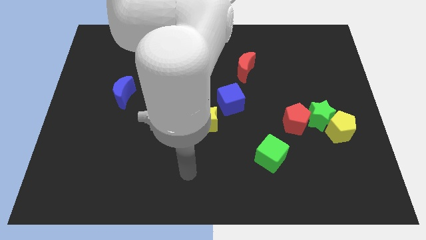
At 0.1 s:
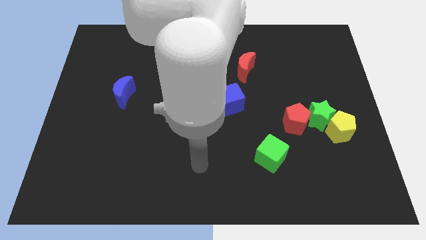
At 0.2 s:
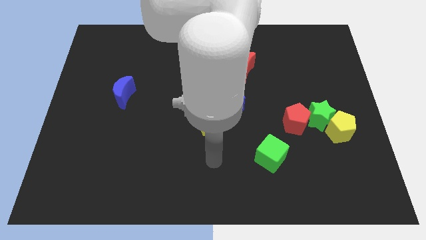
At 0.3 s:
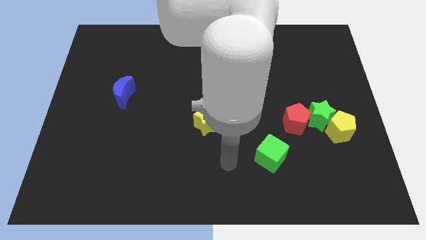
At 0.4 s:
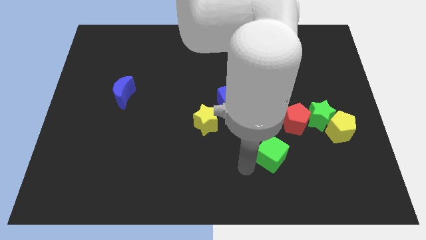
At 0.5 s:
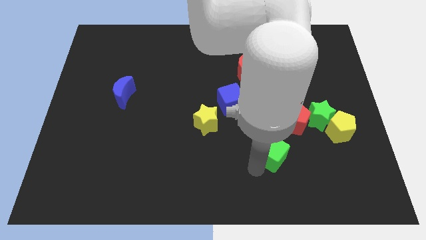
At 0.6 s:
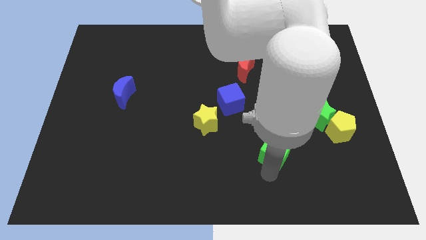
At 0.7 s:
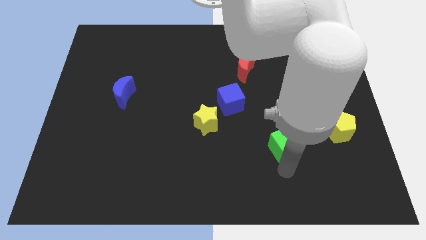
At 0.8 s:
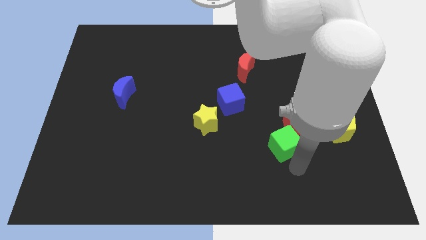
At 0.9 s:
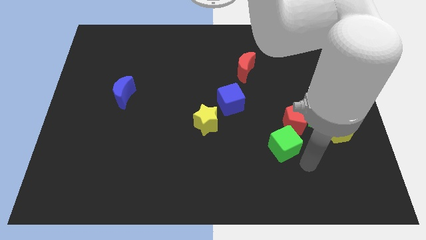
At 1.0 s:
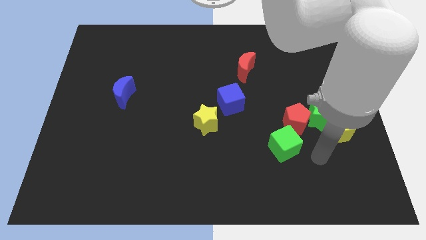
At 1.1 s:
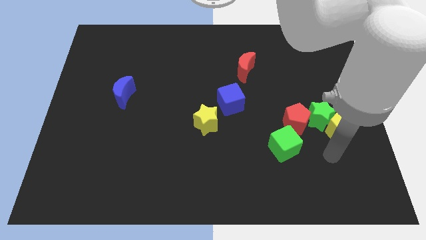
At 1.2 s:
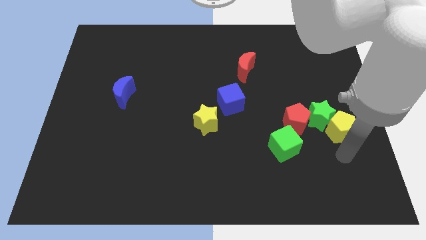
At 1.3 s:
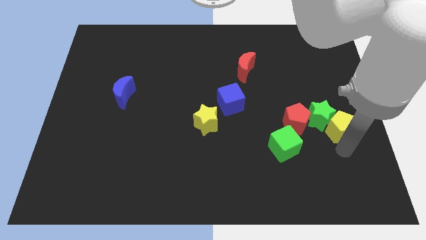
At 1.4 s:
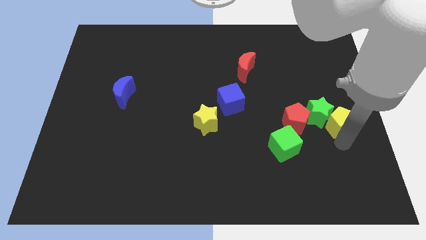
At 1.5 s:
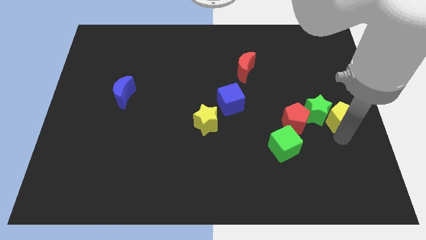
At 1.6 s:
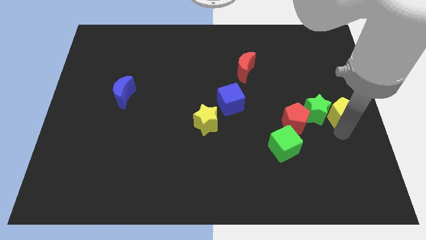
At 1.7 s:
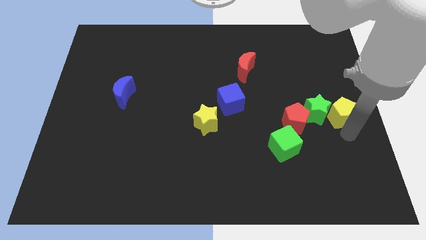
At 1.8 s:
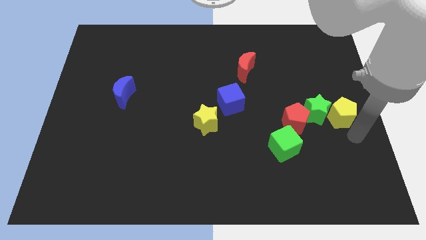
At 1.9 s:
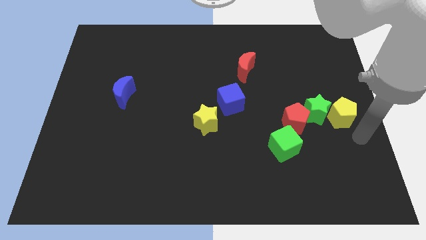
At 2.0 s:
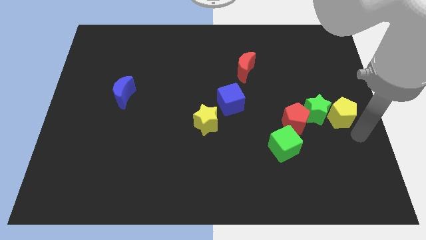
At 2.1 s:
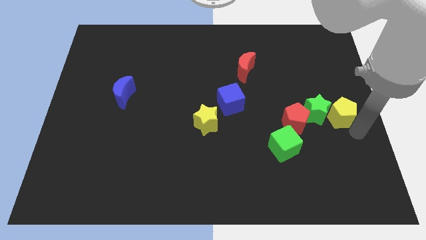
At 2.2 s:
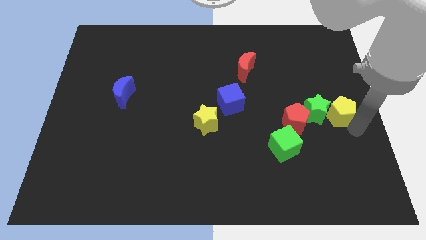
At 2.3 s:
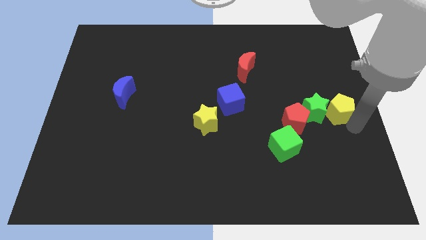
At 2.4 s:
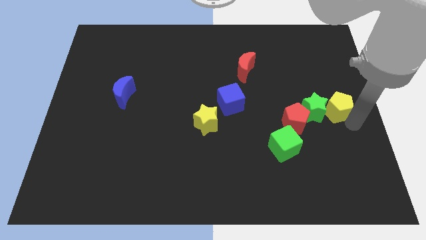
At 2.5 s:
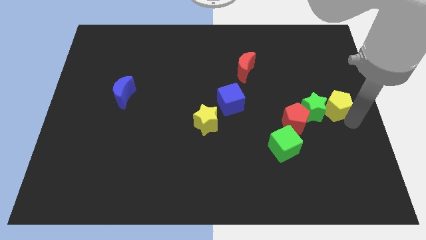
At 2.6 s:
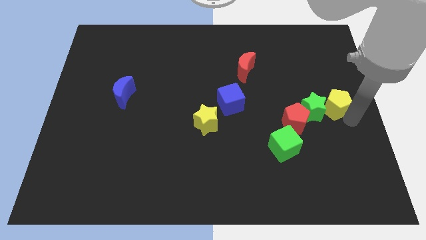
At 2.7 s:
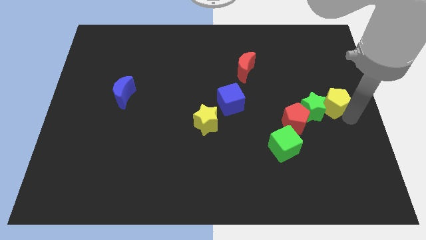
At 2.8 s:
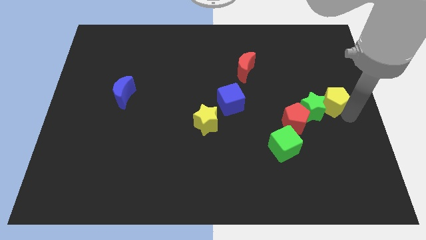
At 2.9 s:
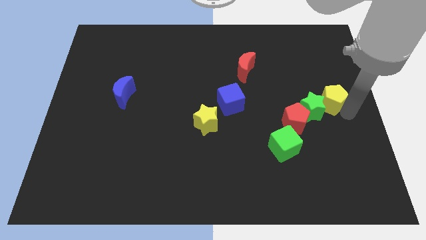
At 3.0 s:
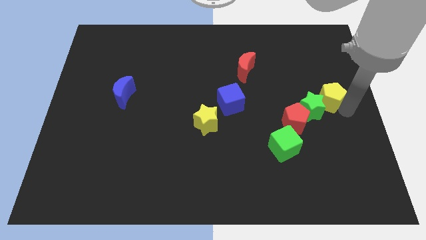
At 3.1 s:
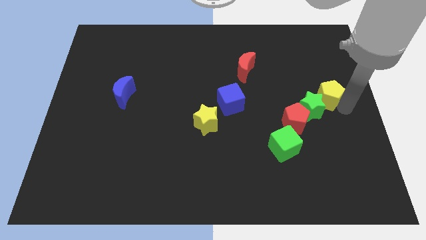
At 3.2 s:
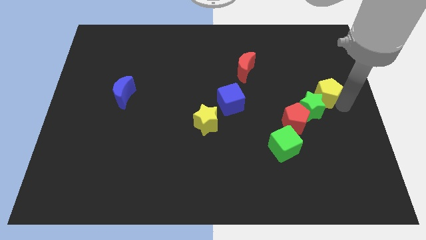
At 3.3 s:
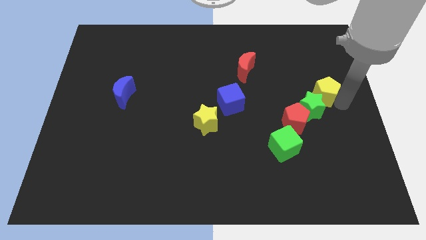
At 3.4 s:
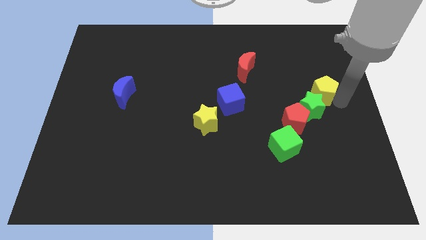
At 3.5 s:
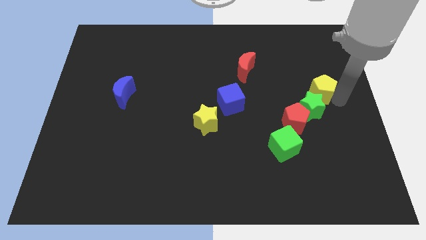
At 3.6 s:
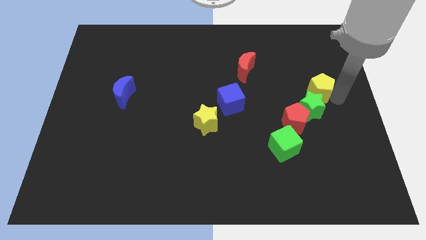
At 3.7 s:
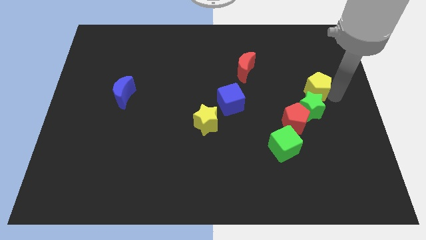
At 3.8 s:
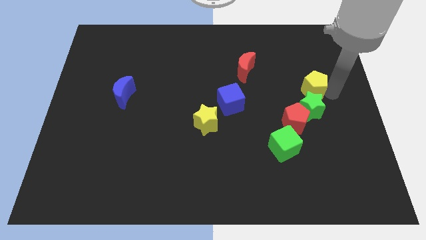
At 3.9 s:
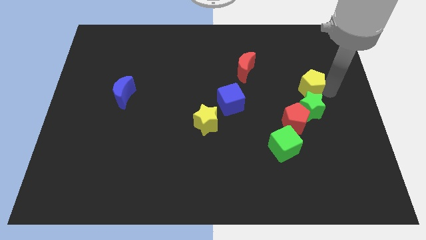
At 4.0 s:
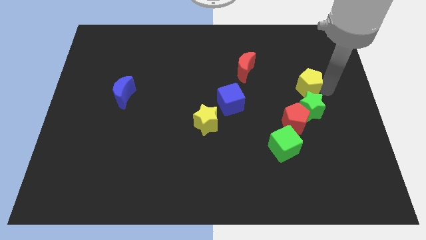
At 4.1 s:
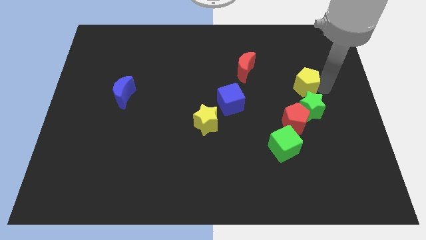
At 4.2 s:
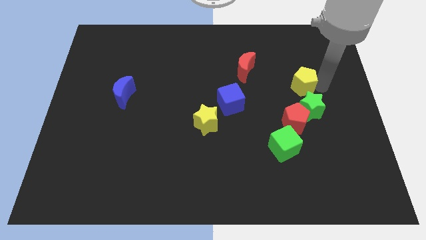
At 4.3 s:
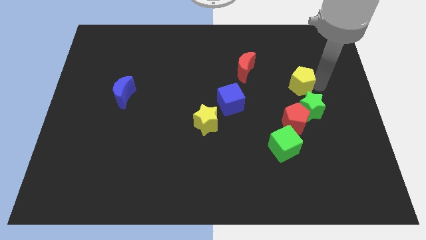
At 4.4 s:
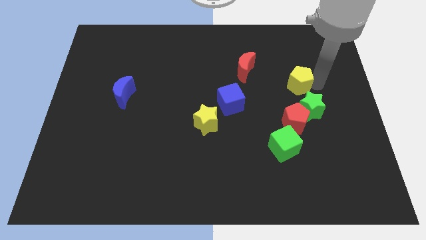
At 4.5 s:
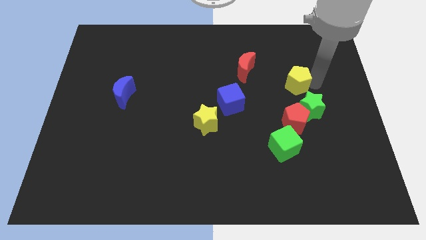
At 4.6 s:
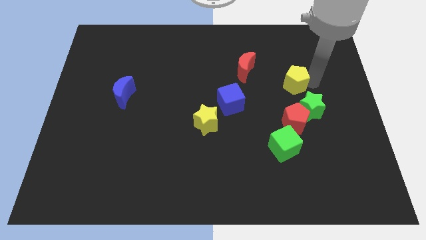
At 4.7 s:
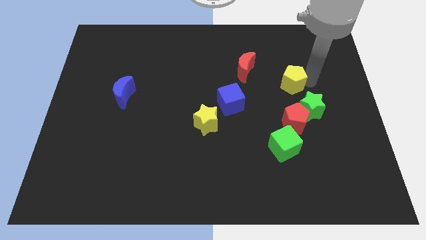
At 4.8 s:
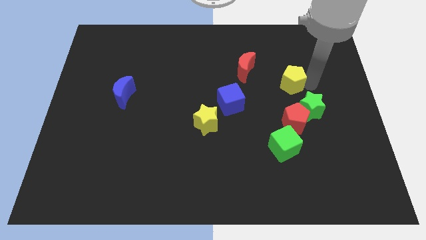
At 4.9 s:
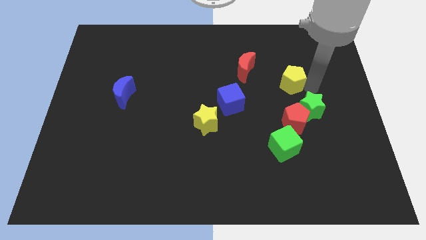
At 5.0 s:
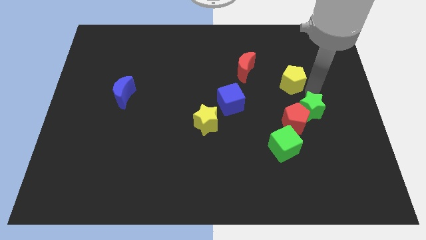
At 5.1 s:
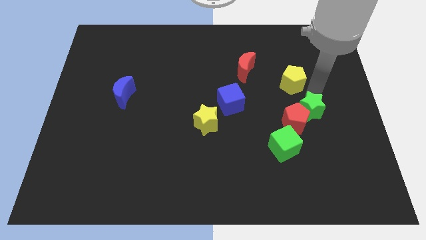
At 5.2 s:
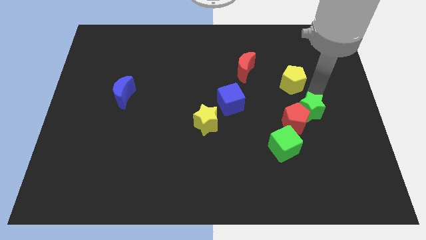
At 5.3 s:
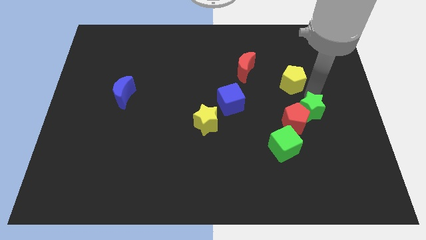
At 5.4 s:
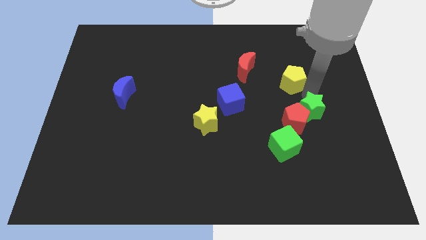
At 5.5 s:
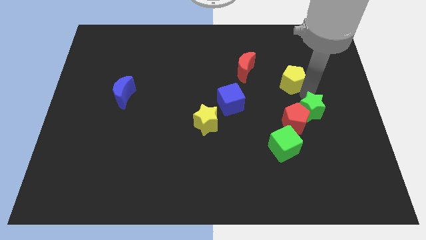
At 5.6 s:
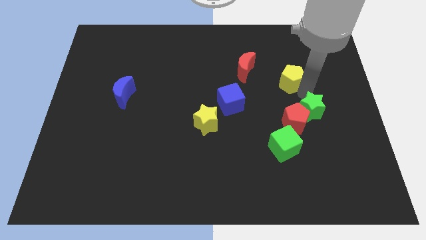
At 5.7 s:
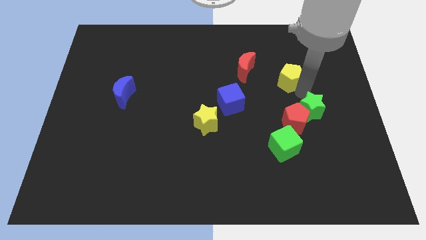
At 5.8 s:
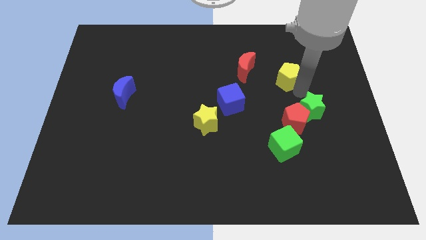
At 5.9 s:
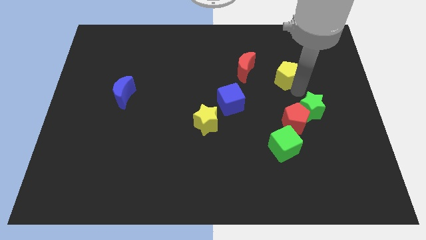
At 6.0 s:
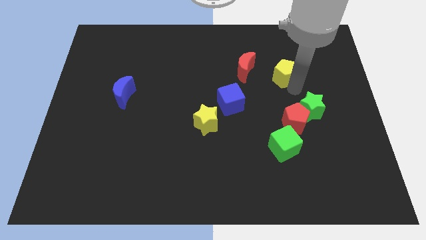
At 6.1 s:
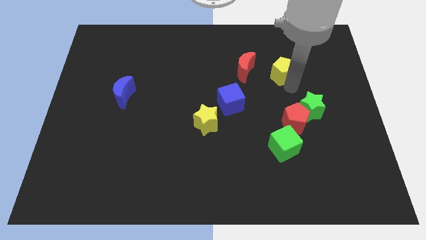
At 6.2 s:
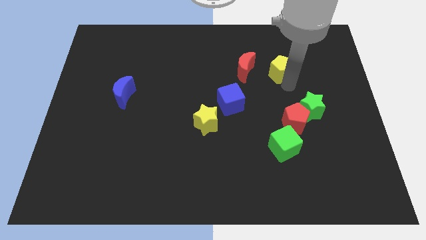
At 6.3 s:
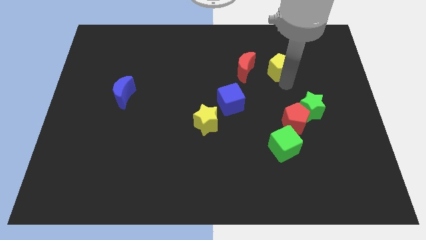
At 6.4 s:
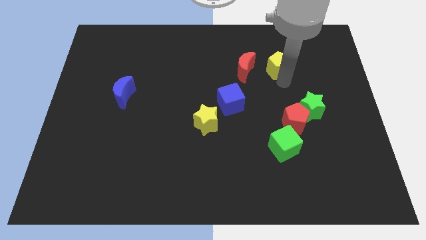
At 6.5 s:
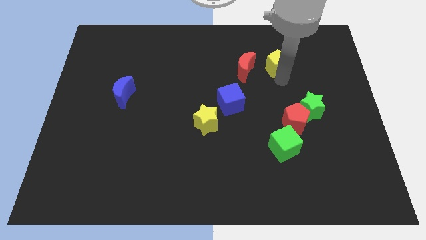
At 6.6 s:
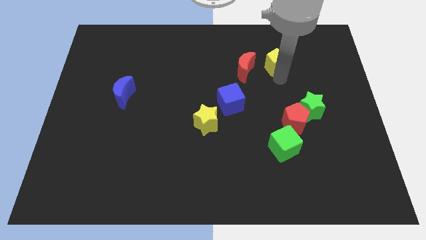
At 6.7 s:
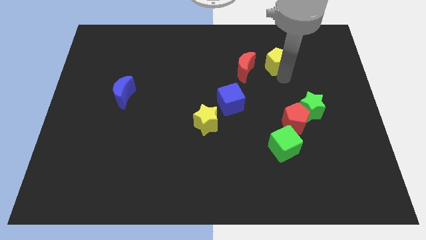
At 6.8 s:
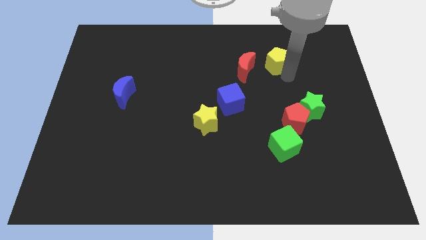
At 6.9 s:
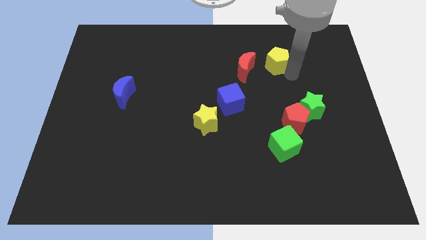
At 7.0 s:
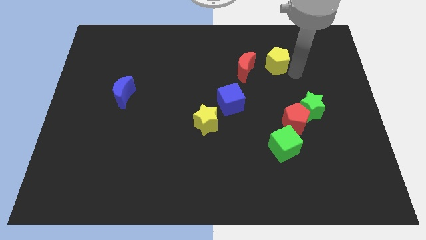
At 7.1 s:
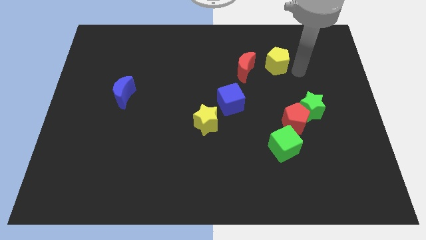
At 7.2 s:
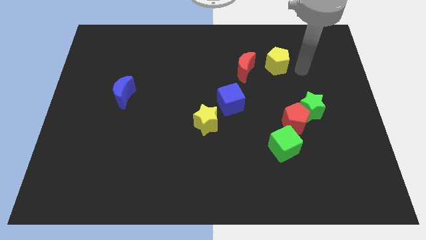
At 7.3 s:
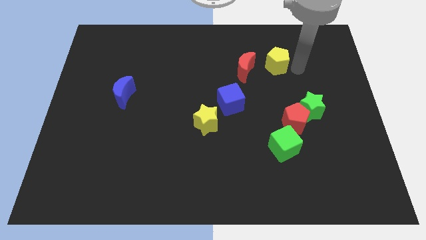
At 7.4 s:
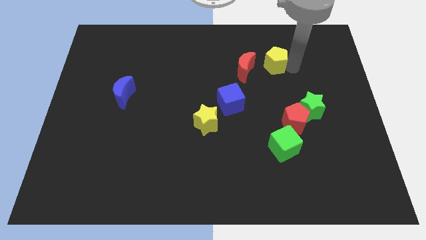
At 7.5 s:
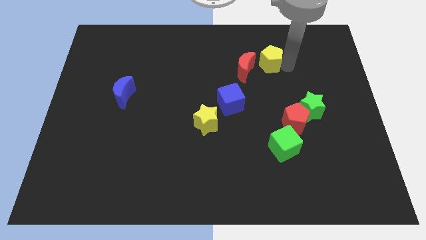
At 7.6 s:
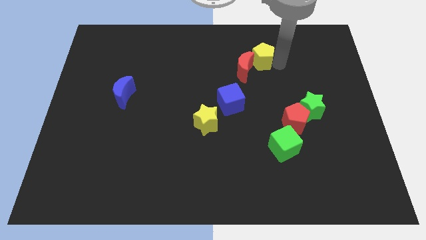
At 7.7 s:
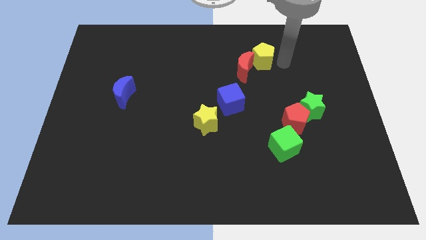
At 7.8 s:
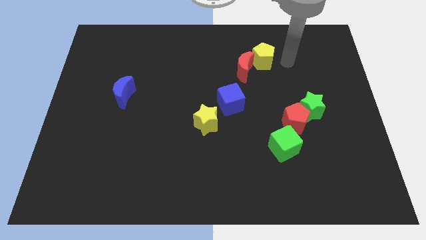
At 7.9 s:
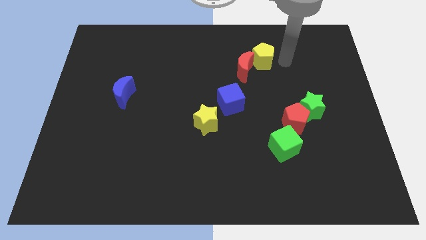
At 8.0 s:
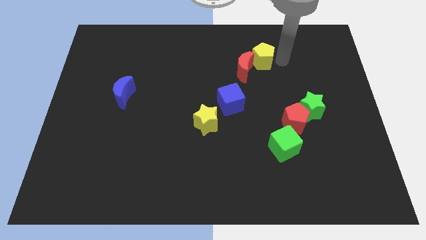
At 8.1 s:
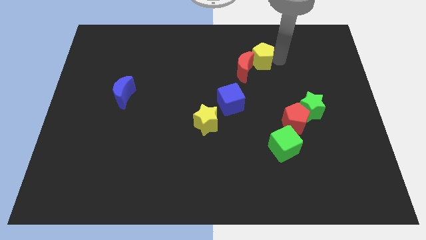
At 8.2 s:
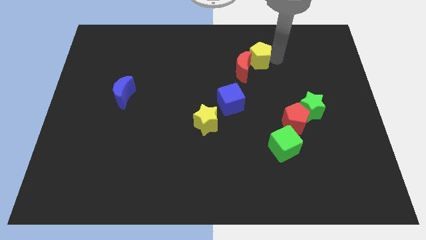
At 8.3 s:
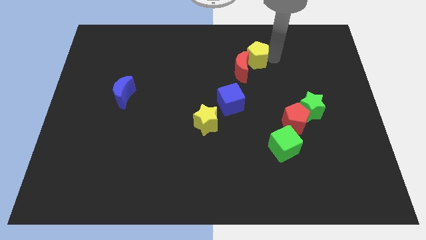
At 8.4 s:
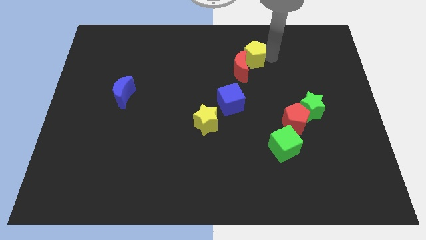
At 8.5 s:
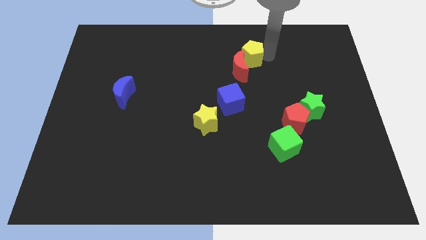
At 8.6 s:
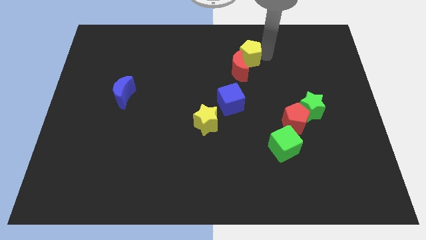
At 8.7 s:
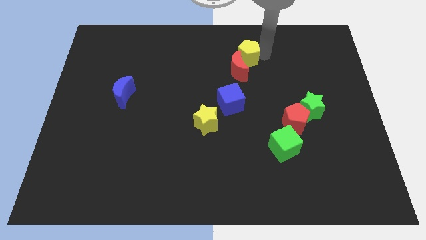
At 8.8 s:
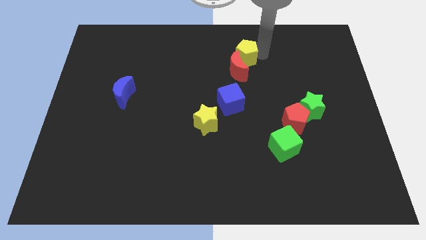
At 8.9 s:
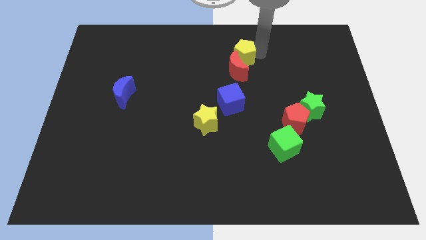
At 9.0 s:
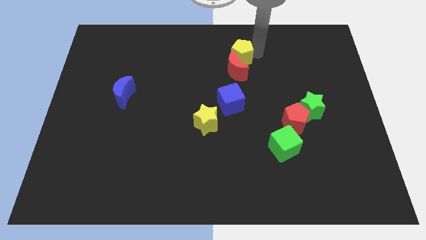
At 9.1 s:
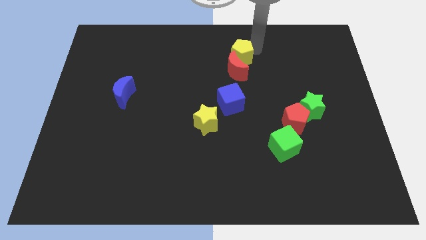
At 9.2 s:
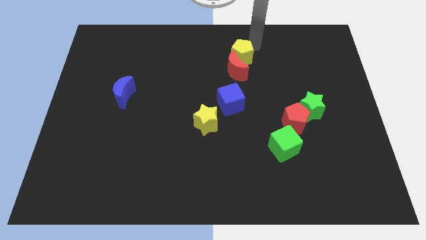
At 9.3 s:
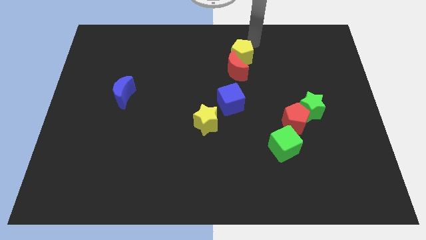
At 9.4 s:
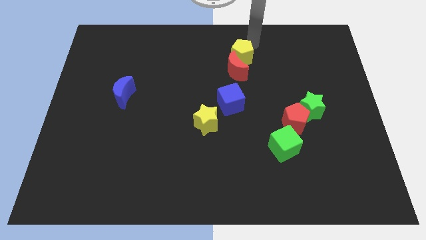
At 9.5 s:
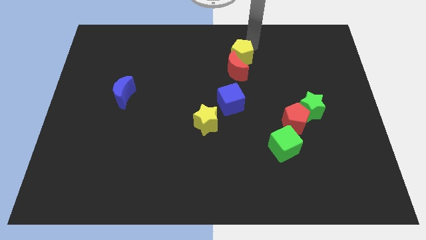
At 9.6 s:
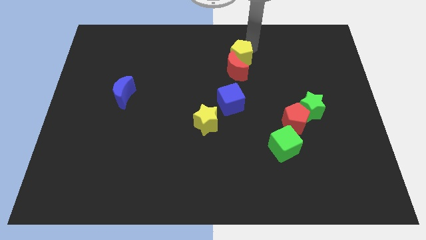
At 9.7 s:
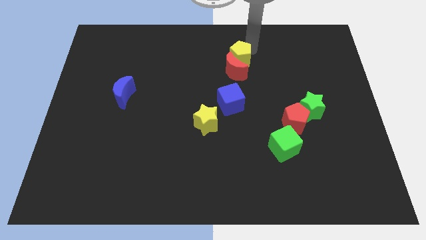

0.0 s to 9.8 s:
slide the yellow pentagon to the top of the blue cube
